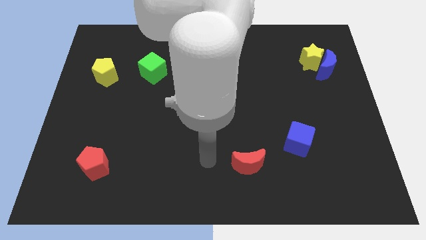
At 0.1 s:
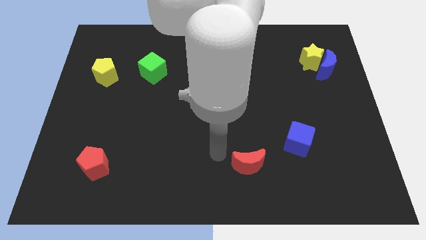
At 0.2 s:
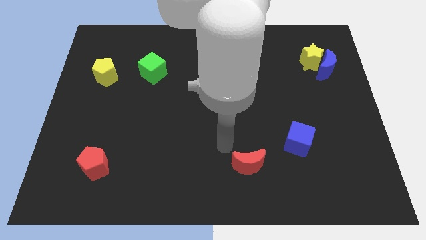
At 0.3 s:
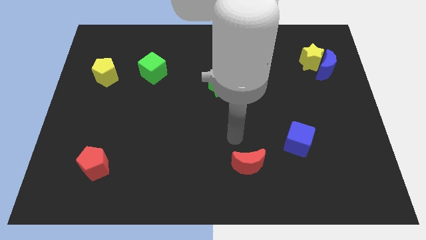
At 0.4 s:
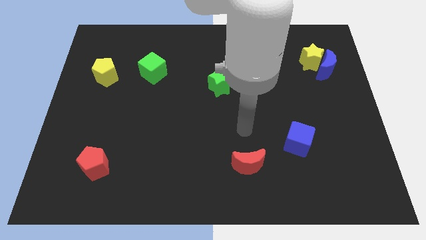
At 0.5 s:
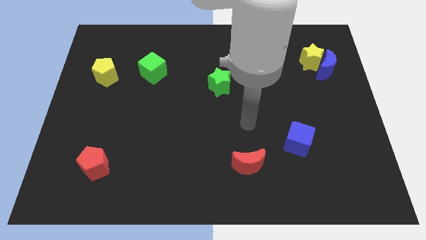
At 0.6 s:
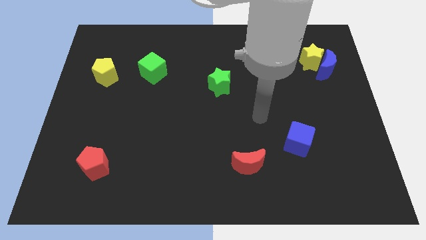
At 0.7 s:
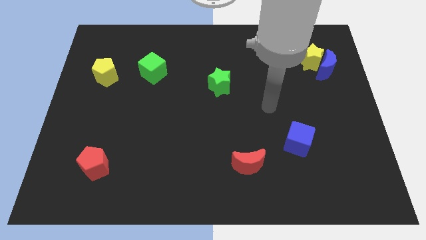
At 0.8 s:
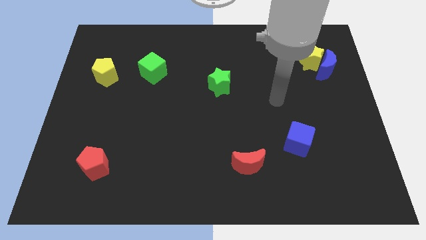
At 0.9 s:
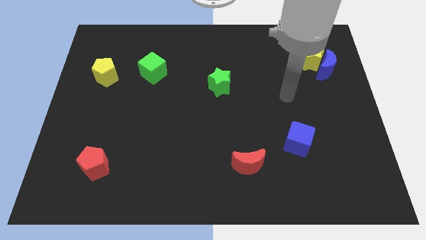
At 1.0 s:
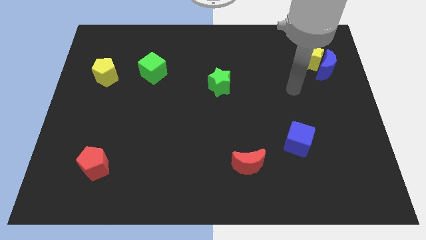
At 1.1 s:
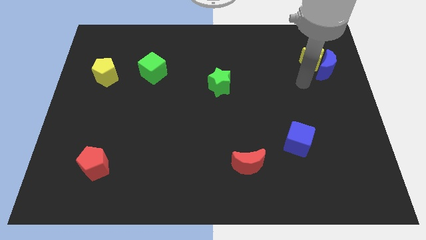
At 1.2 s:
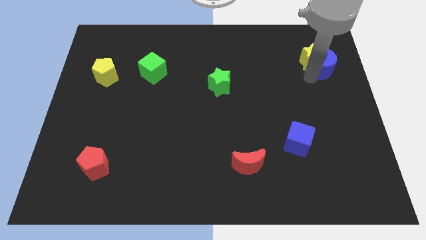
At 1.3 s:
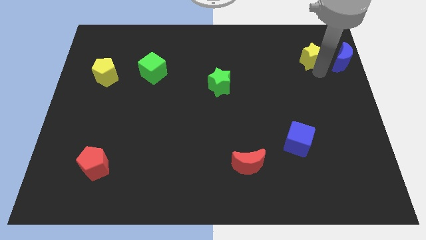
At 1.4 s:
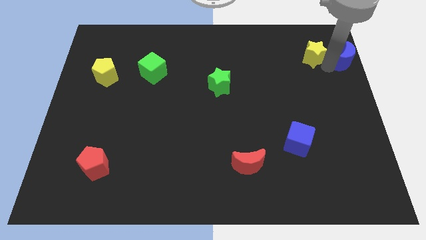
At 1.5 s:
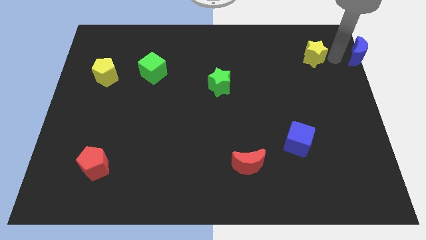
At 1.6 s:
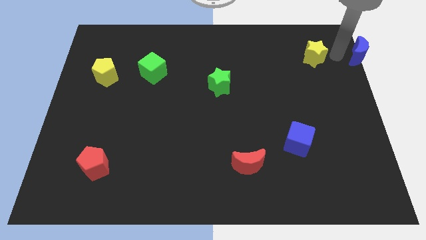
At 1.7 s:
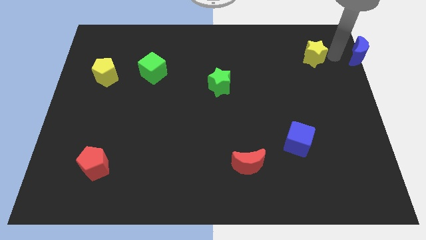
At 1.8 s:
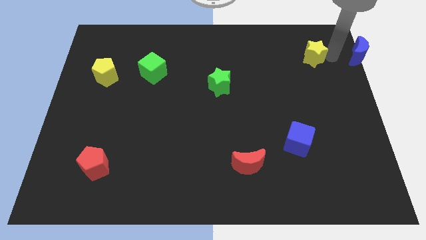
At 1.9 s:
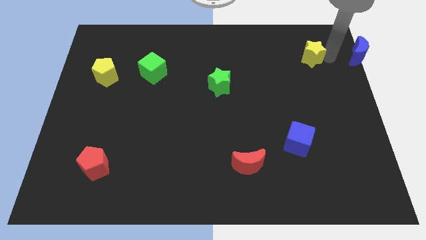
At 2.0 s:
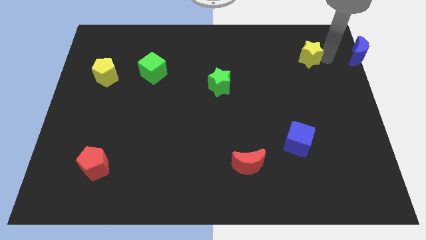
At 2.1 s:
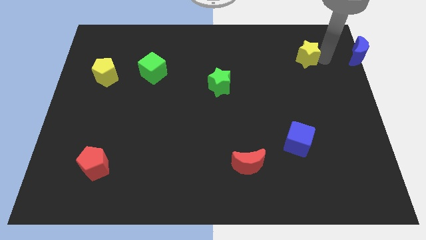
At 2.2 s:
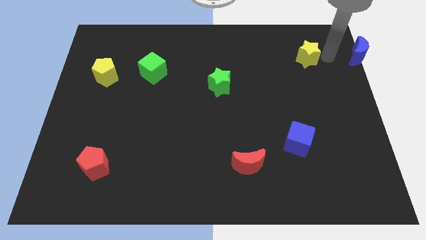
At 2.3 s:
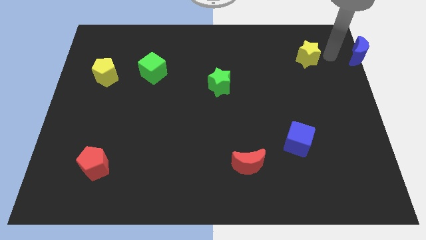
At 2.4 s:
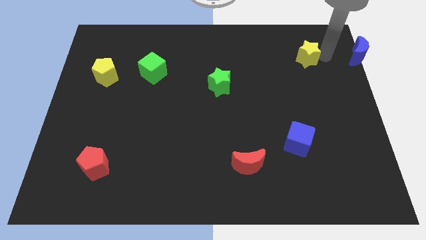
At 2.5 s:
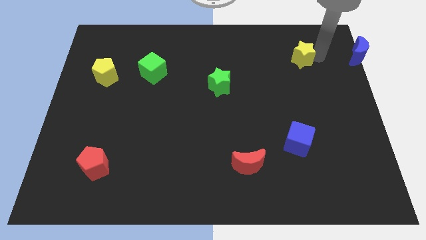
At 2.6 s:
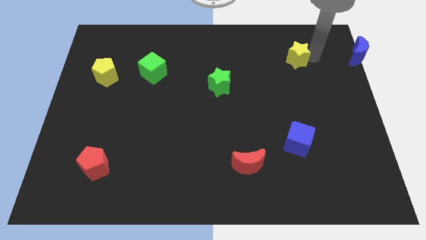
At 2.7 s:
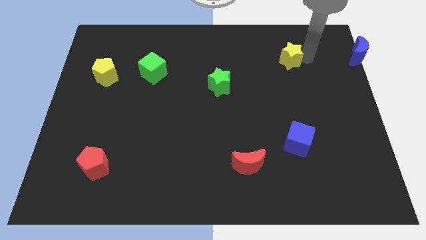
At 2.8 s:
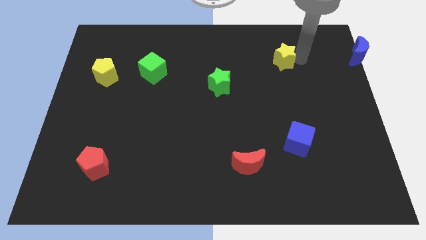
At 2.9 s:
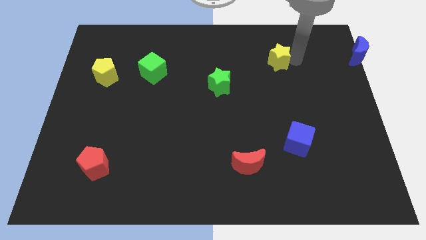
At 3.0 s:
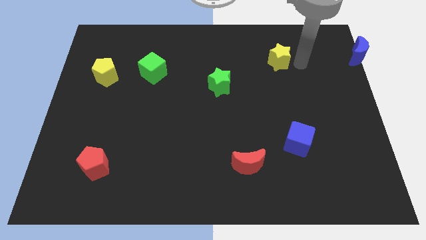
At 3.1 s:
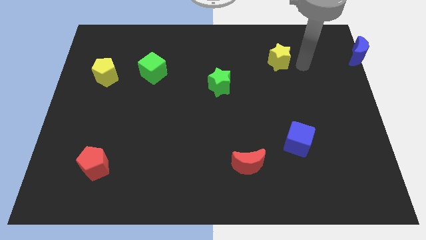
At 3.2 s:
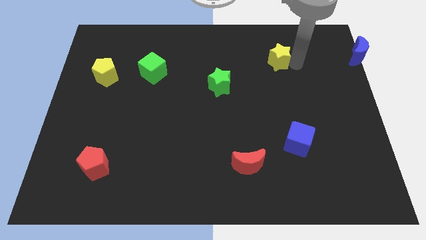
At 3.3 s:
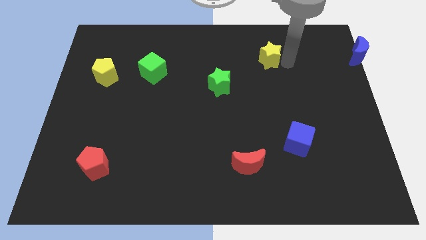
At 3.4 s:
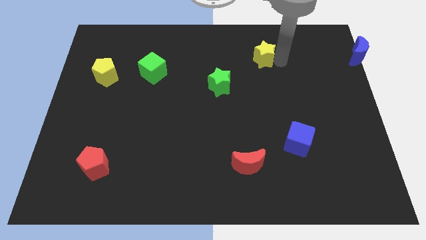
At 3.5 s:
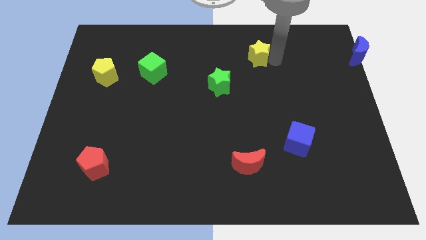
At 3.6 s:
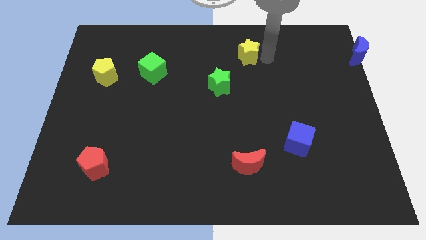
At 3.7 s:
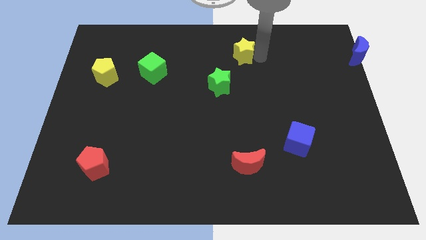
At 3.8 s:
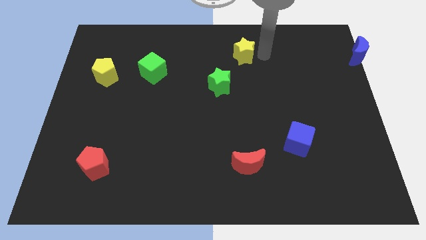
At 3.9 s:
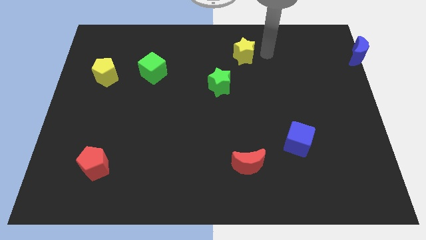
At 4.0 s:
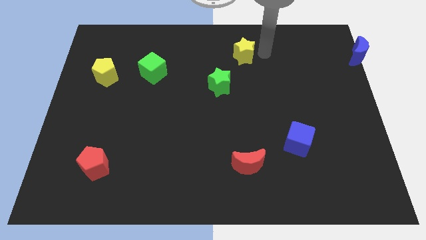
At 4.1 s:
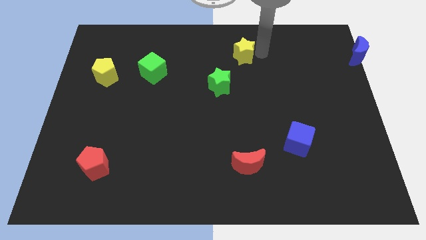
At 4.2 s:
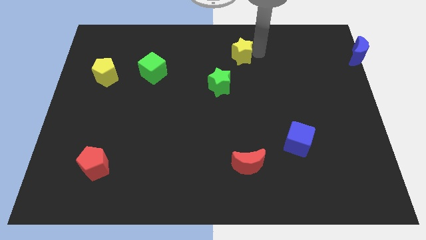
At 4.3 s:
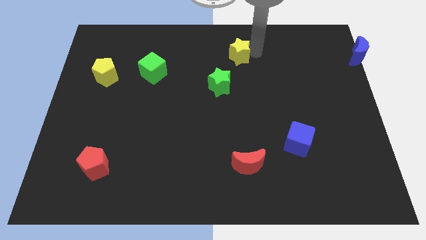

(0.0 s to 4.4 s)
push the yellow star to the top side of the green star

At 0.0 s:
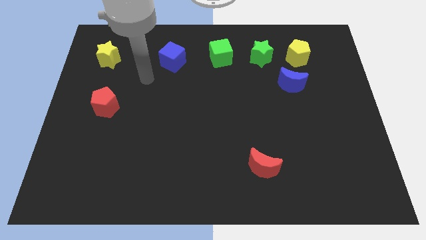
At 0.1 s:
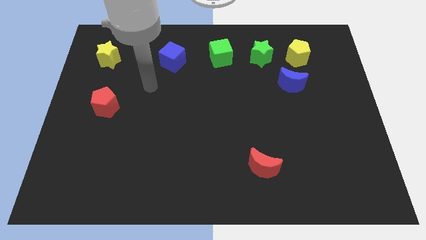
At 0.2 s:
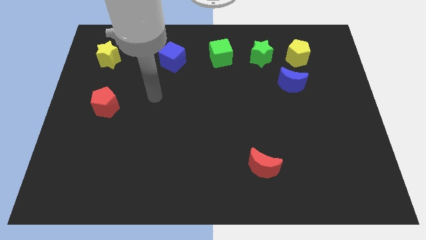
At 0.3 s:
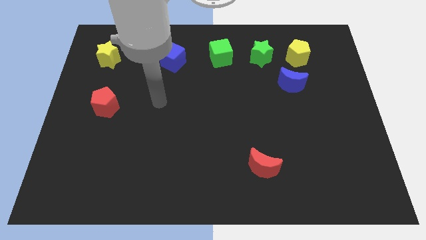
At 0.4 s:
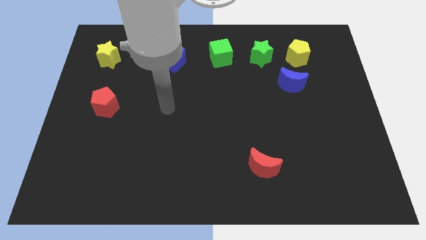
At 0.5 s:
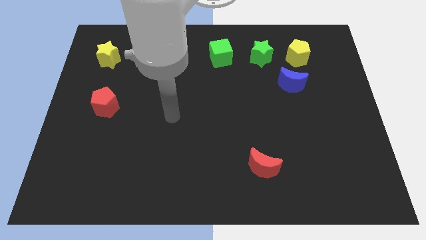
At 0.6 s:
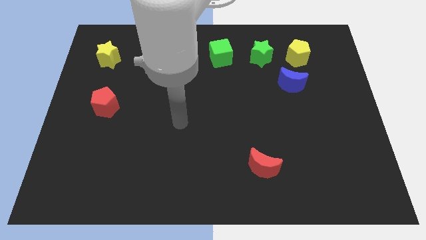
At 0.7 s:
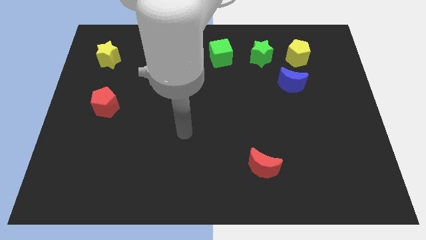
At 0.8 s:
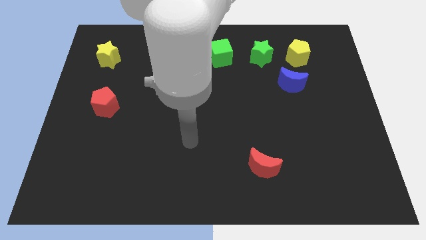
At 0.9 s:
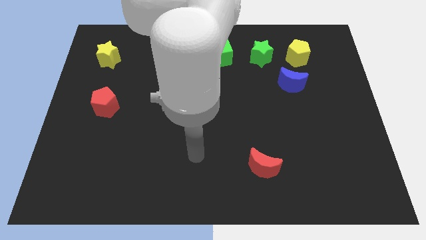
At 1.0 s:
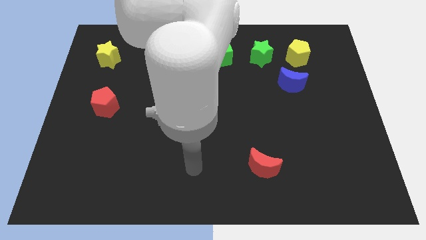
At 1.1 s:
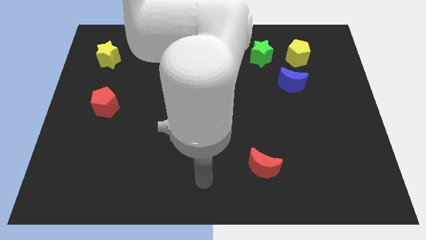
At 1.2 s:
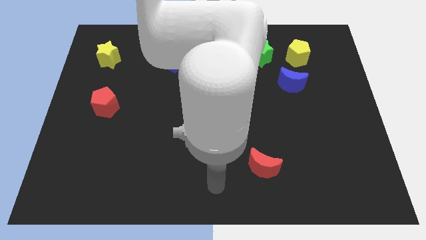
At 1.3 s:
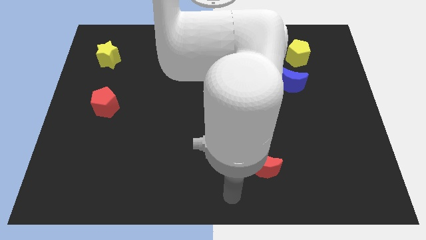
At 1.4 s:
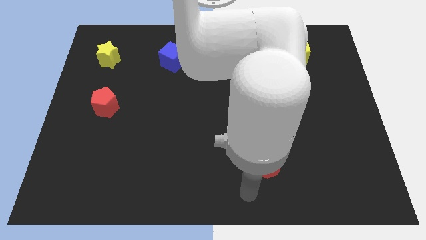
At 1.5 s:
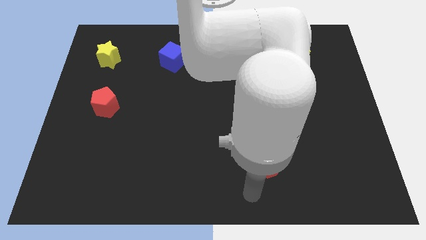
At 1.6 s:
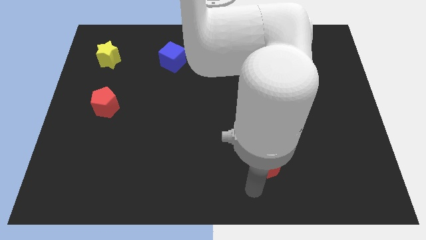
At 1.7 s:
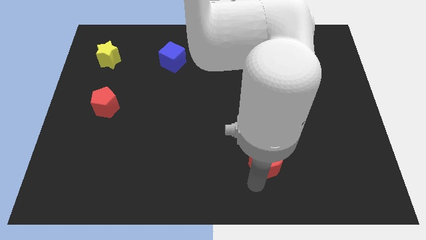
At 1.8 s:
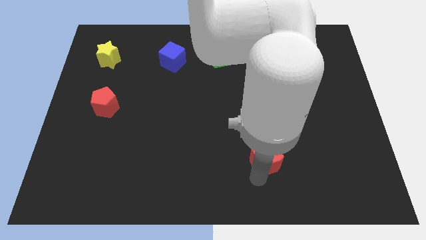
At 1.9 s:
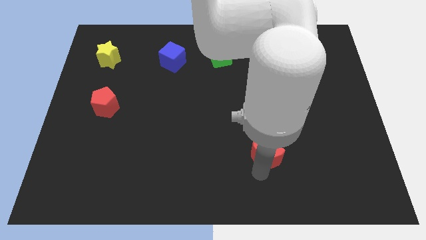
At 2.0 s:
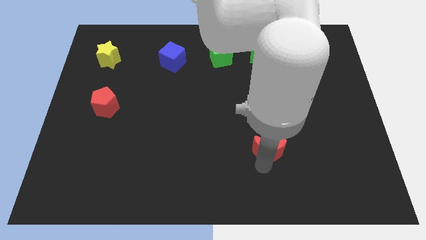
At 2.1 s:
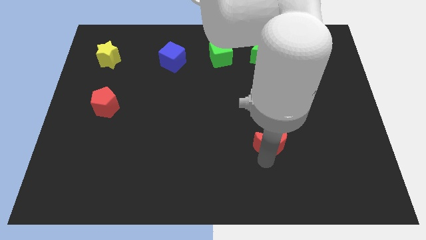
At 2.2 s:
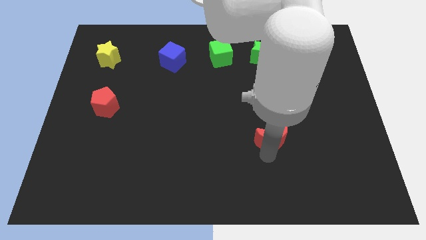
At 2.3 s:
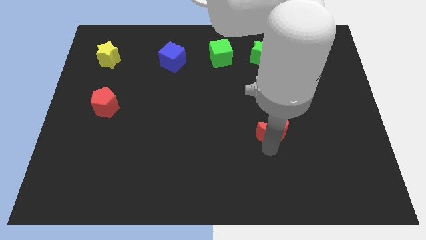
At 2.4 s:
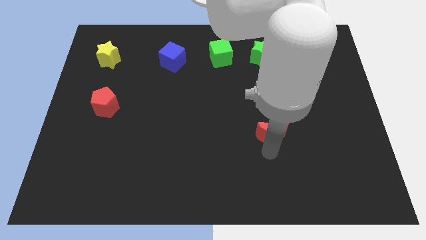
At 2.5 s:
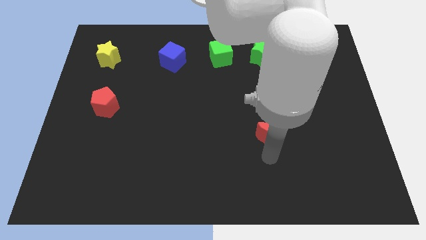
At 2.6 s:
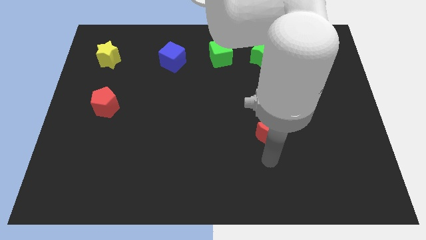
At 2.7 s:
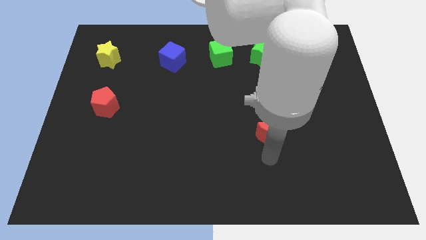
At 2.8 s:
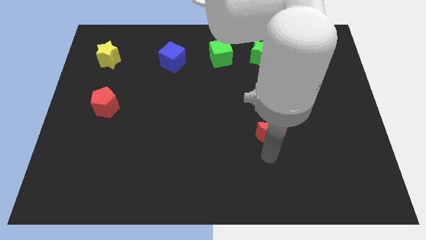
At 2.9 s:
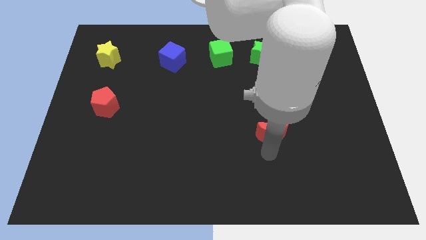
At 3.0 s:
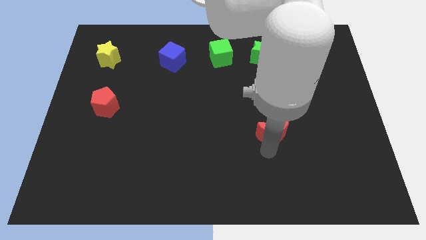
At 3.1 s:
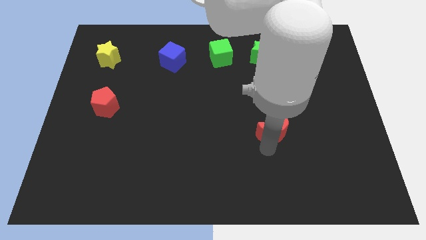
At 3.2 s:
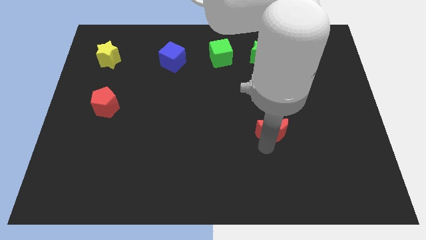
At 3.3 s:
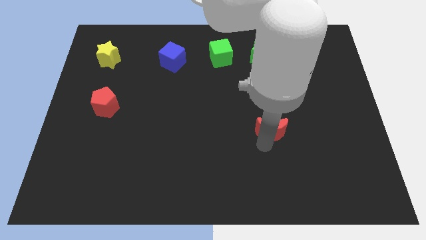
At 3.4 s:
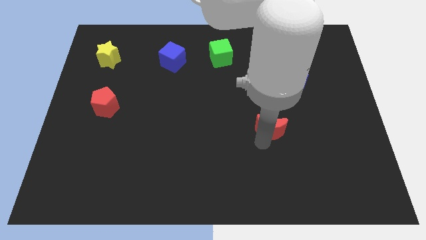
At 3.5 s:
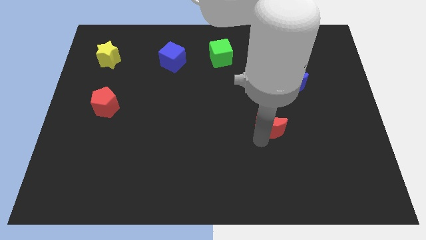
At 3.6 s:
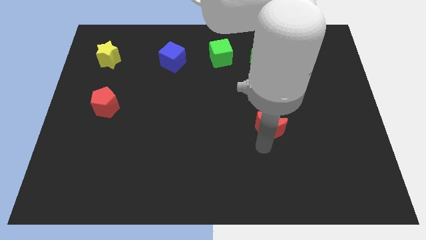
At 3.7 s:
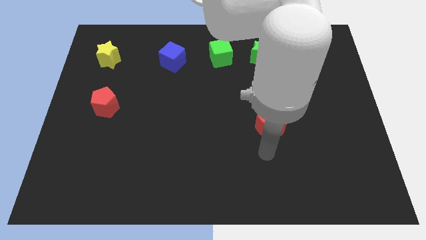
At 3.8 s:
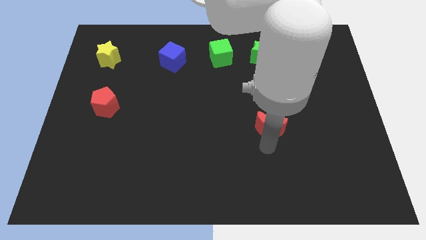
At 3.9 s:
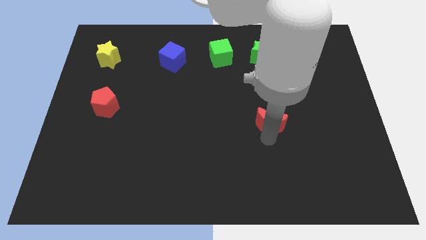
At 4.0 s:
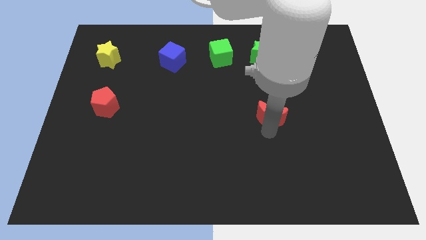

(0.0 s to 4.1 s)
put the red moon to the bottom left side of the blue moon
